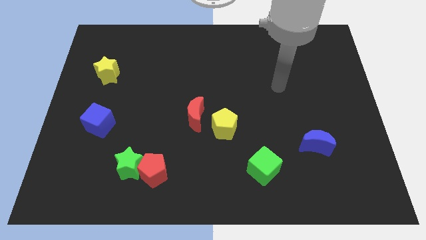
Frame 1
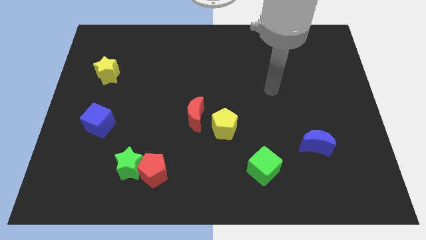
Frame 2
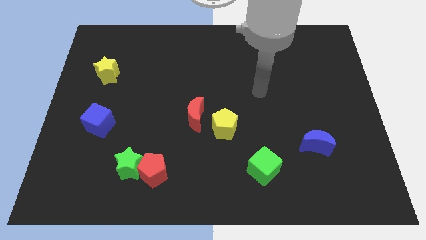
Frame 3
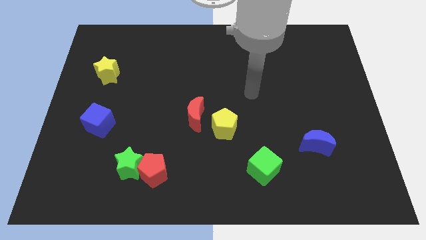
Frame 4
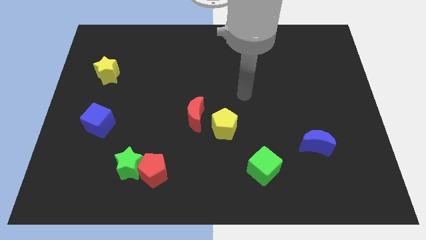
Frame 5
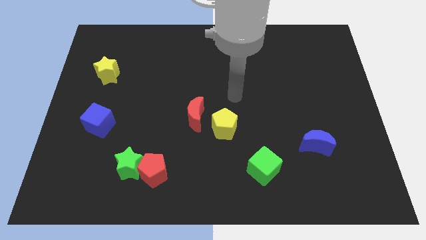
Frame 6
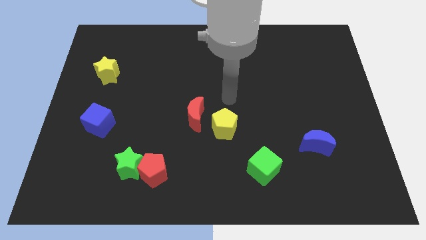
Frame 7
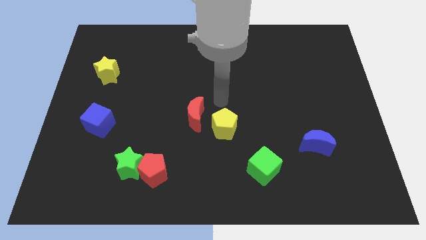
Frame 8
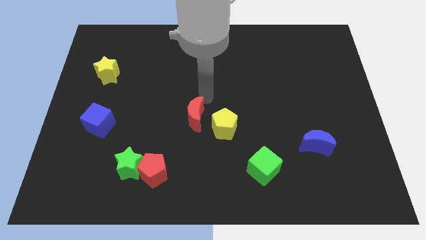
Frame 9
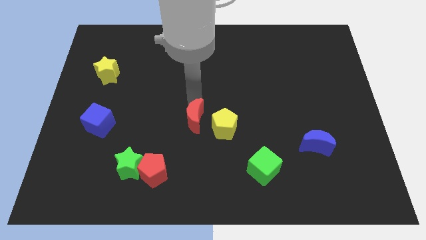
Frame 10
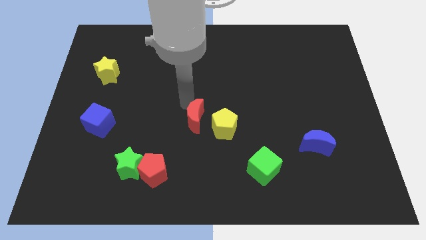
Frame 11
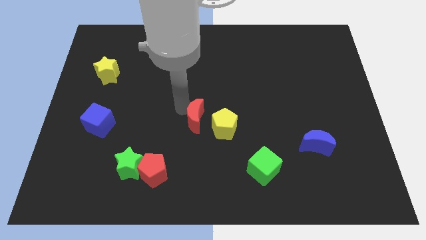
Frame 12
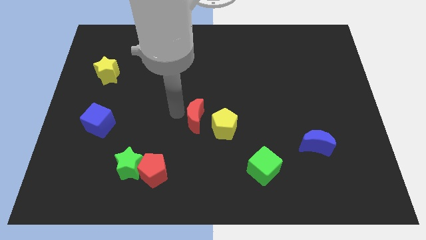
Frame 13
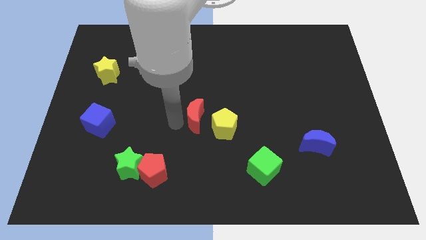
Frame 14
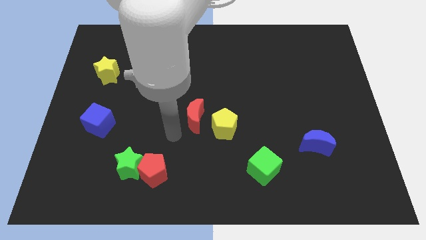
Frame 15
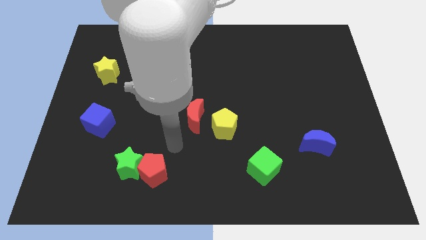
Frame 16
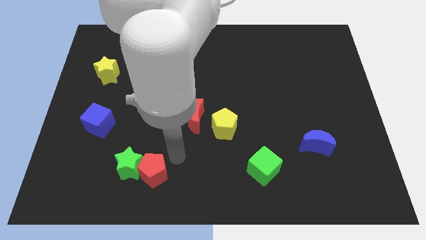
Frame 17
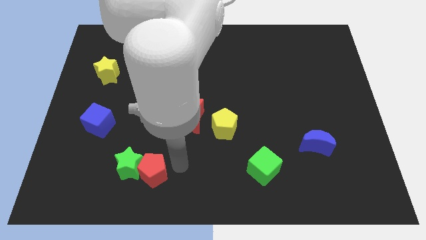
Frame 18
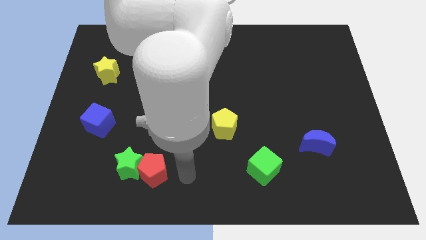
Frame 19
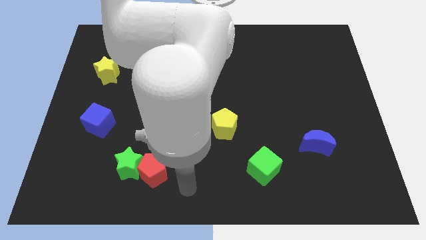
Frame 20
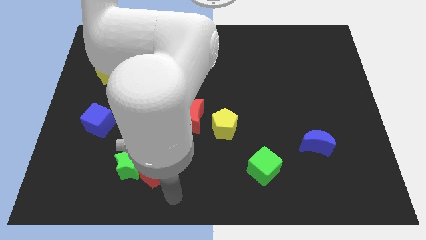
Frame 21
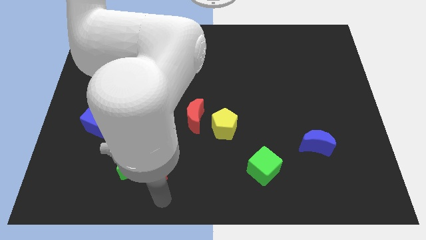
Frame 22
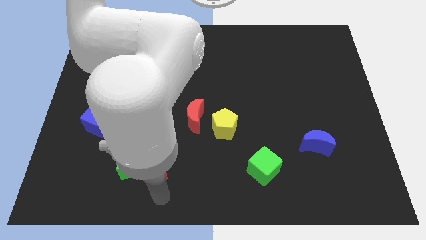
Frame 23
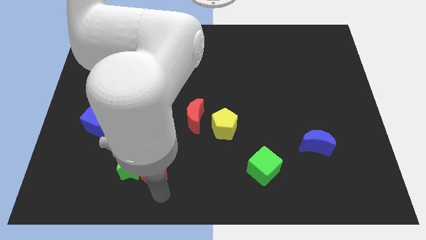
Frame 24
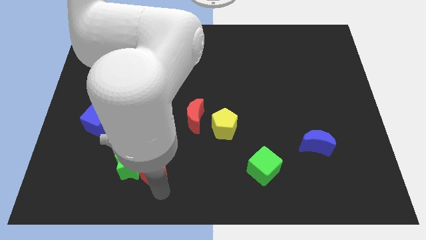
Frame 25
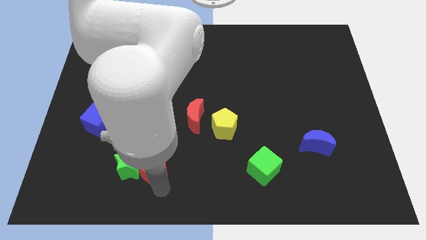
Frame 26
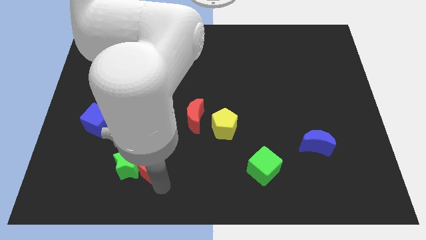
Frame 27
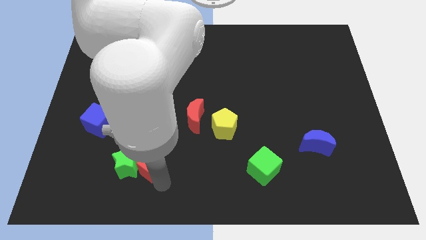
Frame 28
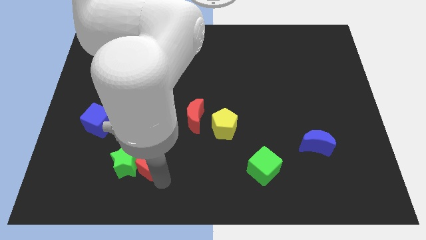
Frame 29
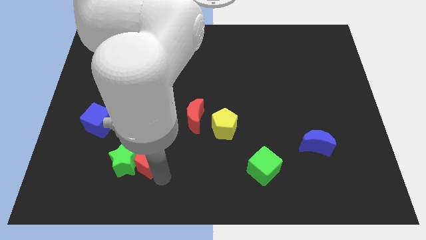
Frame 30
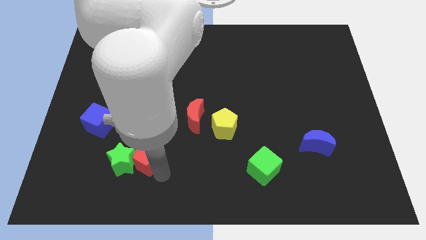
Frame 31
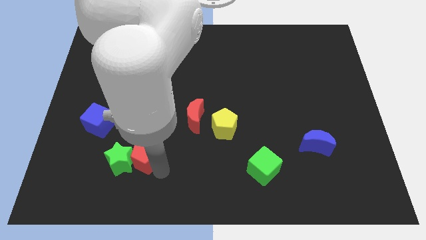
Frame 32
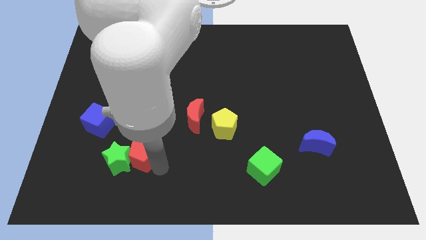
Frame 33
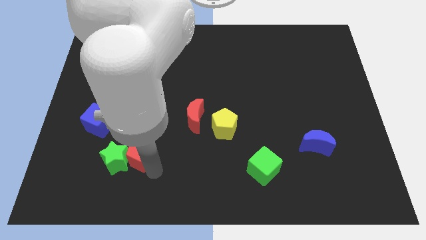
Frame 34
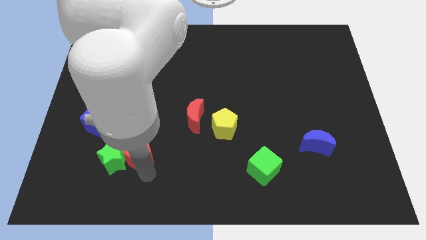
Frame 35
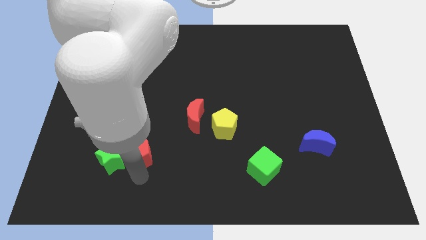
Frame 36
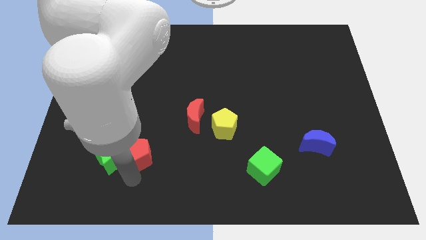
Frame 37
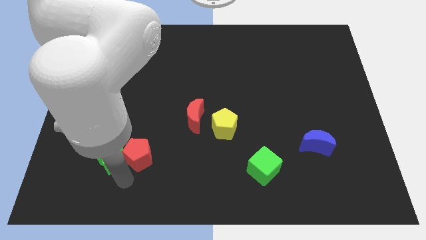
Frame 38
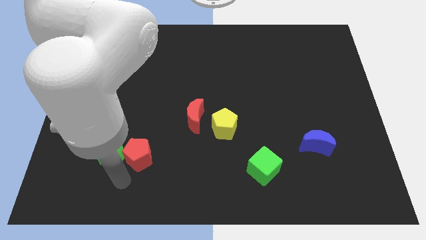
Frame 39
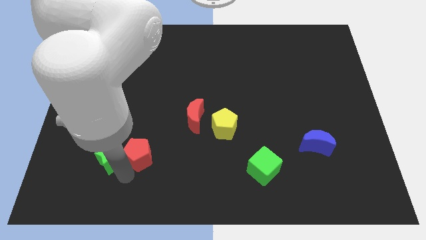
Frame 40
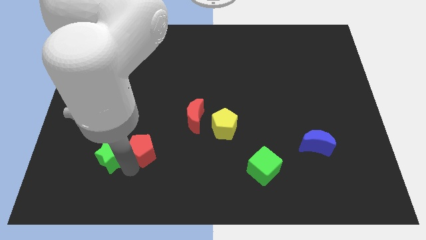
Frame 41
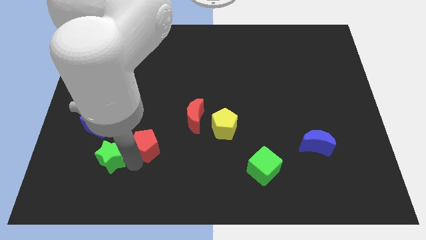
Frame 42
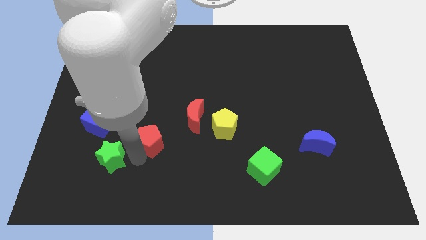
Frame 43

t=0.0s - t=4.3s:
slide the red pentagon a little upwards

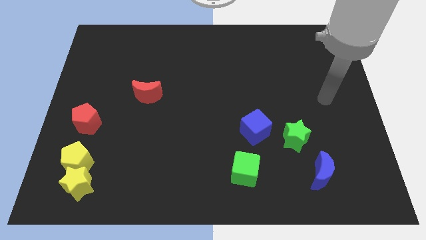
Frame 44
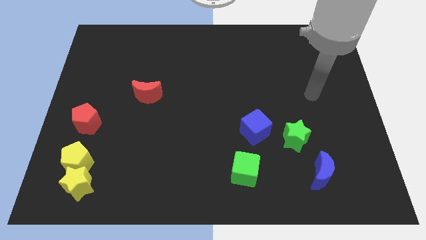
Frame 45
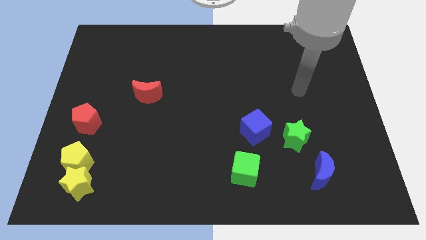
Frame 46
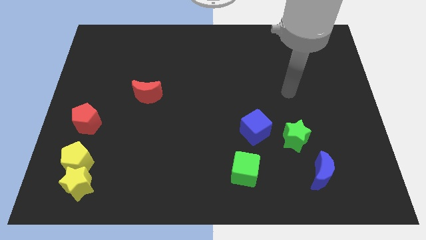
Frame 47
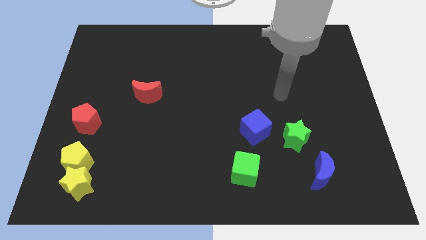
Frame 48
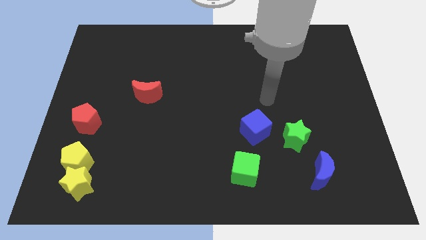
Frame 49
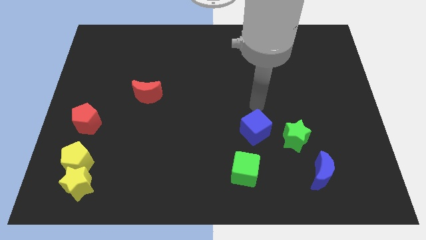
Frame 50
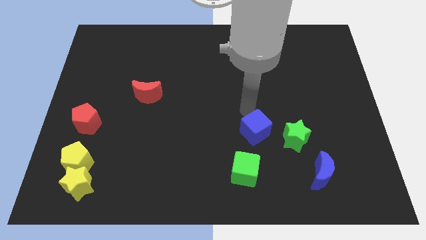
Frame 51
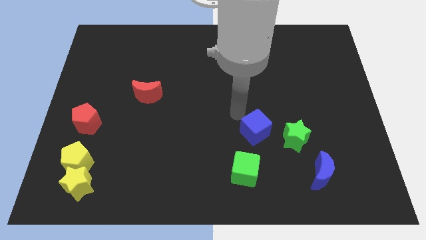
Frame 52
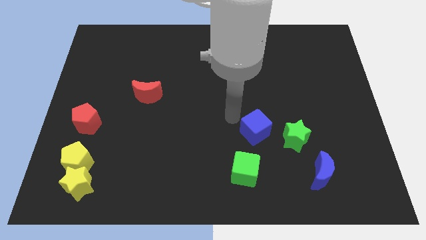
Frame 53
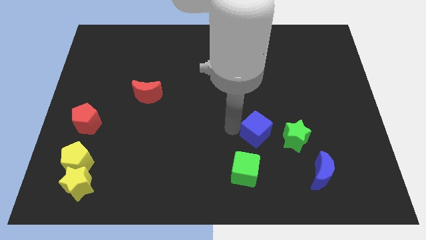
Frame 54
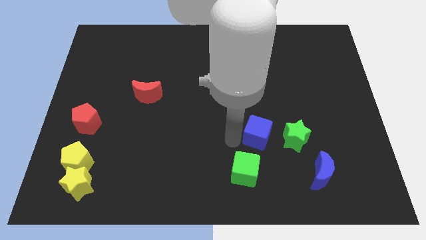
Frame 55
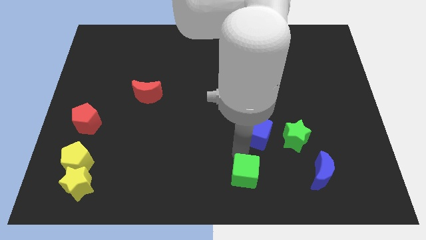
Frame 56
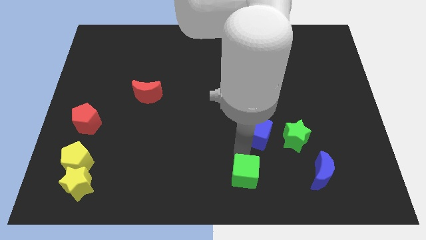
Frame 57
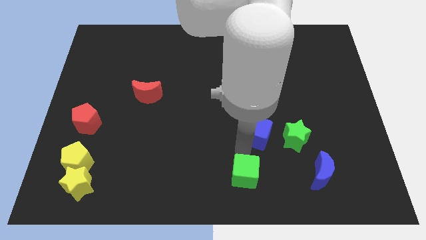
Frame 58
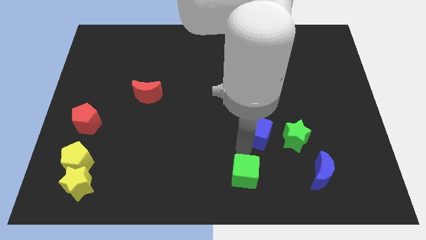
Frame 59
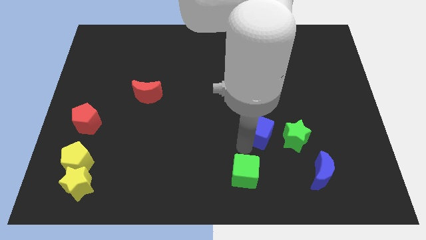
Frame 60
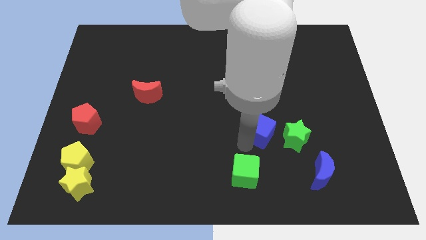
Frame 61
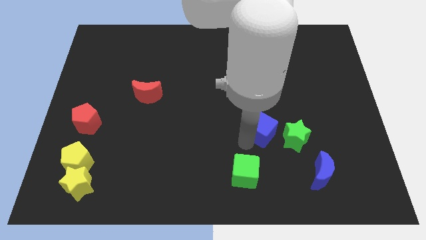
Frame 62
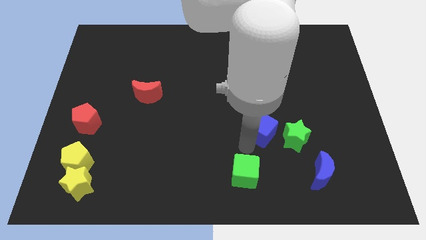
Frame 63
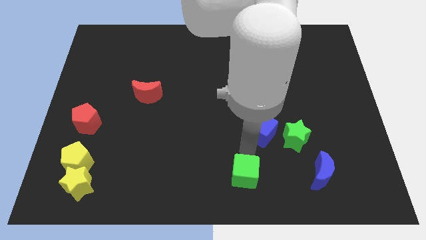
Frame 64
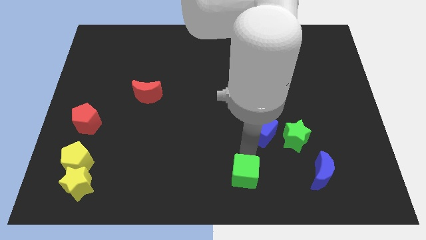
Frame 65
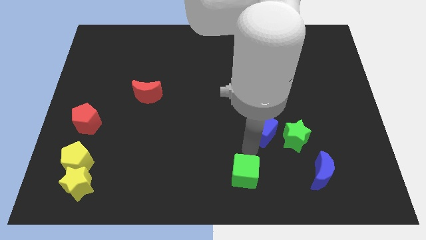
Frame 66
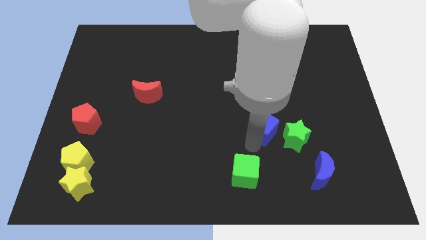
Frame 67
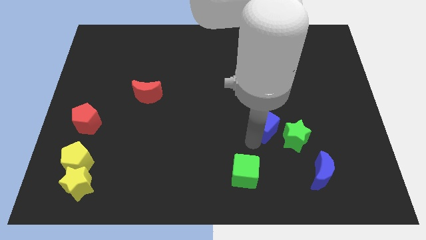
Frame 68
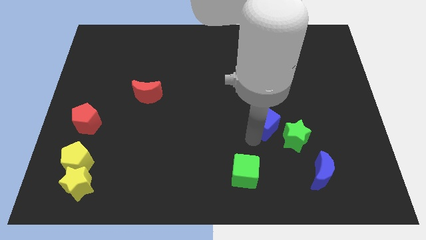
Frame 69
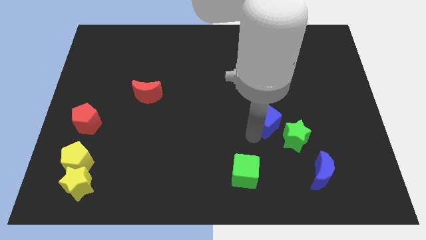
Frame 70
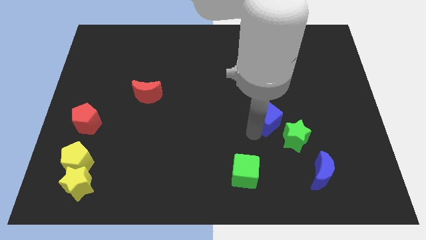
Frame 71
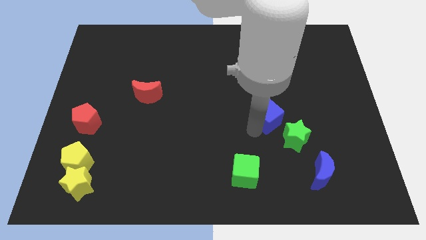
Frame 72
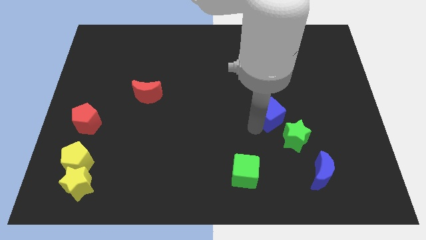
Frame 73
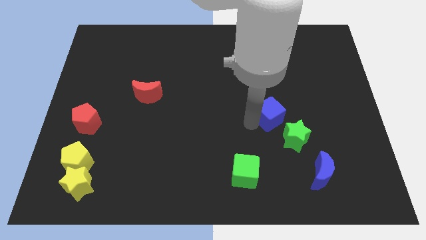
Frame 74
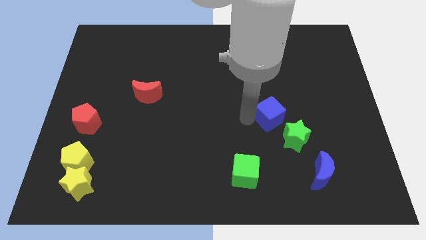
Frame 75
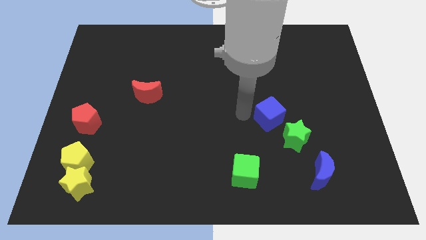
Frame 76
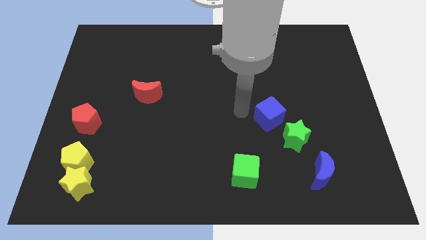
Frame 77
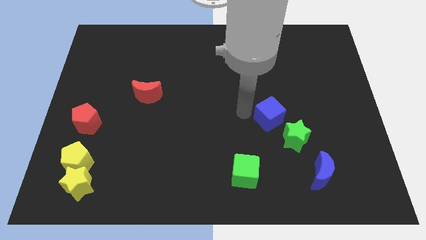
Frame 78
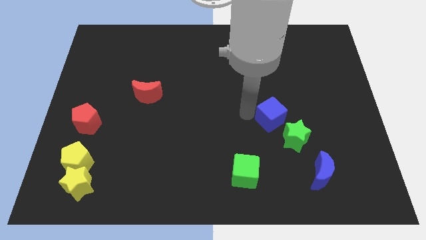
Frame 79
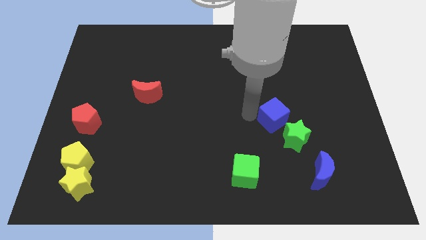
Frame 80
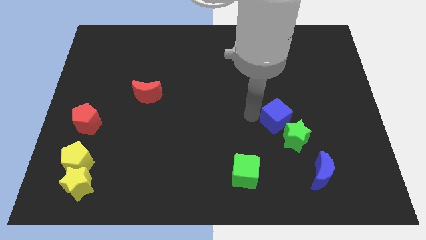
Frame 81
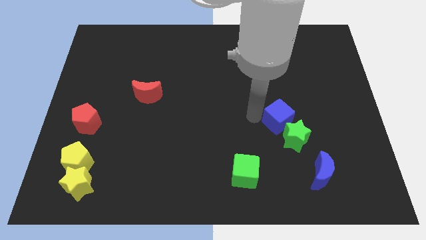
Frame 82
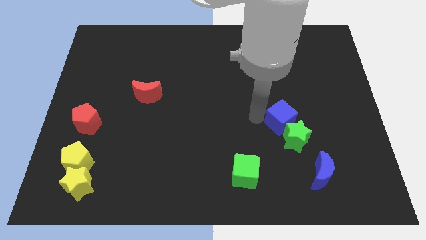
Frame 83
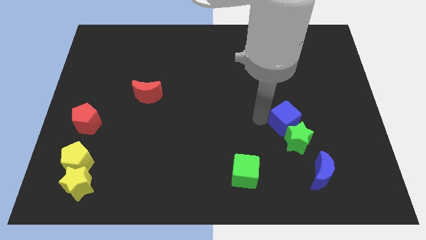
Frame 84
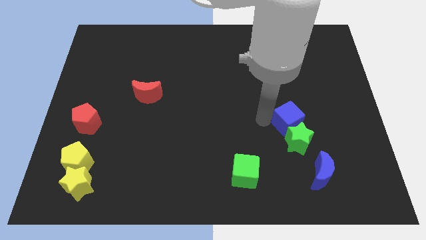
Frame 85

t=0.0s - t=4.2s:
slide the blue cube a little to the right
